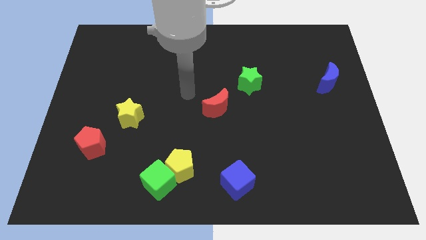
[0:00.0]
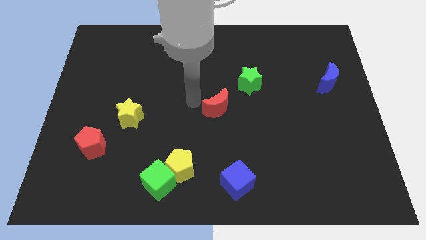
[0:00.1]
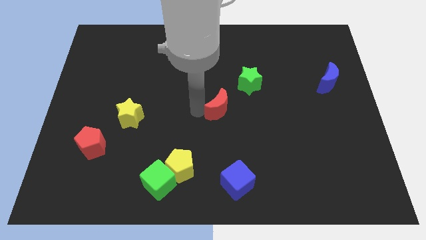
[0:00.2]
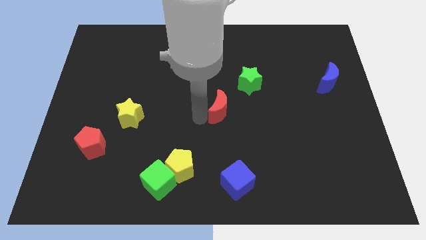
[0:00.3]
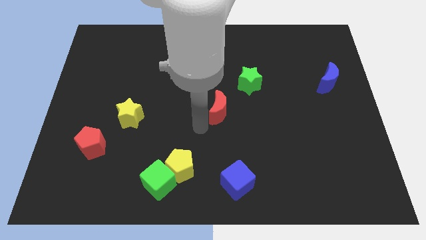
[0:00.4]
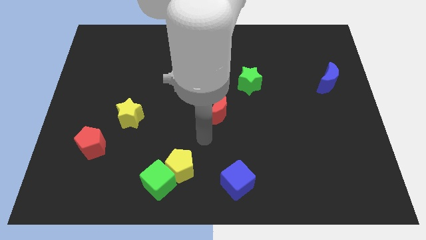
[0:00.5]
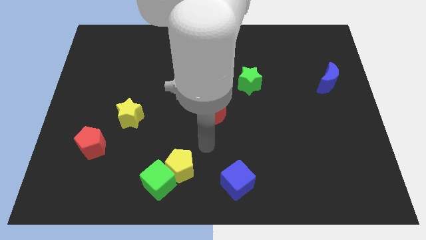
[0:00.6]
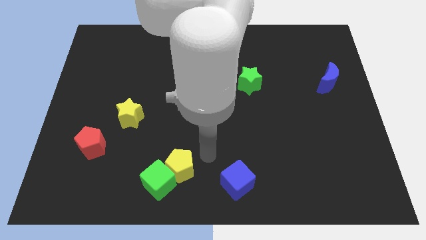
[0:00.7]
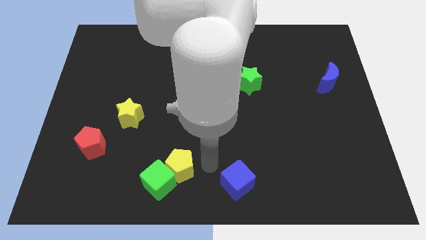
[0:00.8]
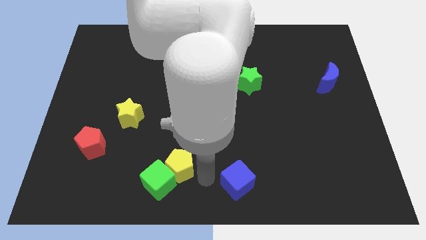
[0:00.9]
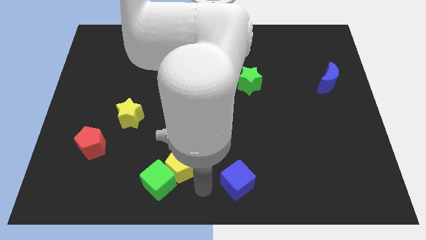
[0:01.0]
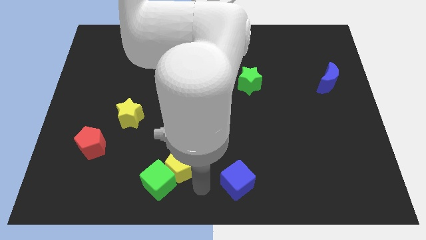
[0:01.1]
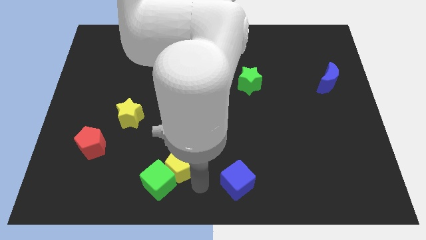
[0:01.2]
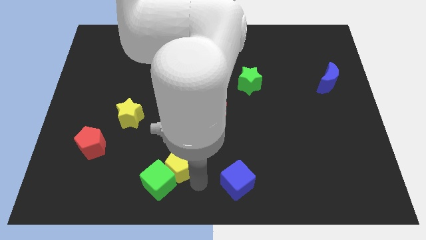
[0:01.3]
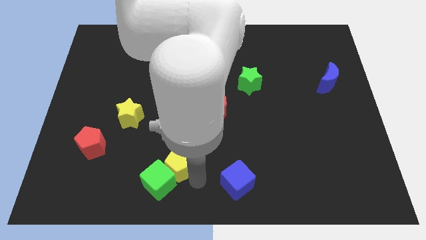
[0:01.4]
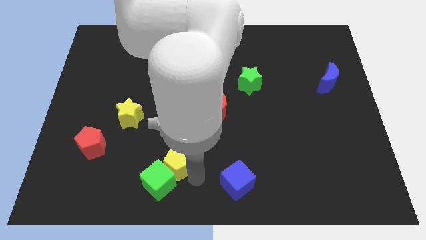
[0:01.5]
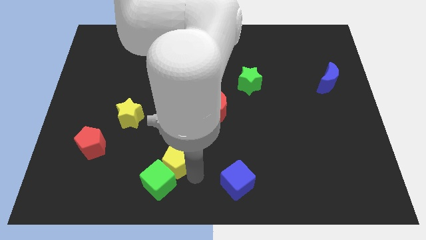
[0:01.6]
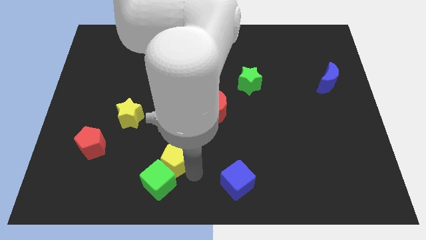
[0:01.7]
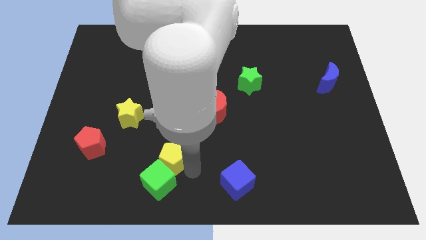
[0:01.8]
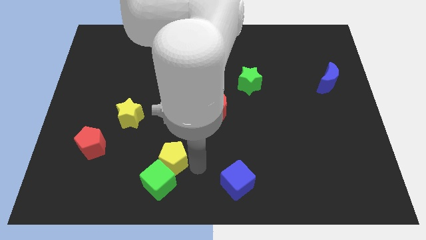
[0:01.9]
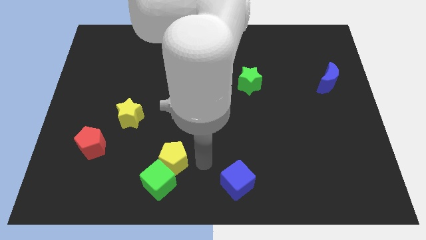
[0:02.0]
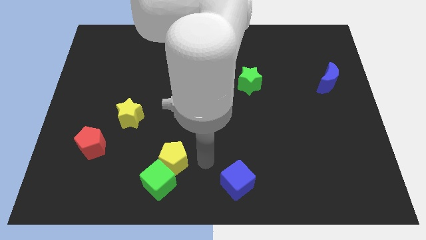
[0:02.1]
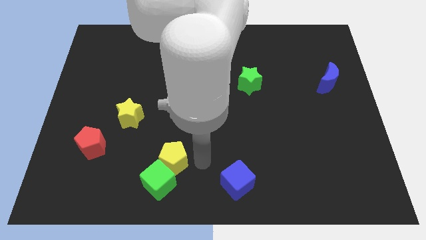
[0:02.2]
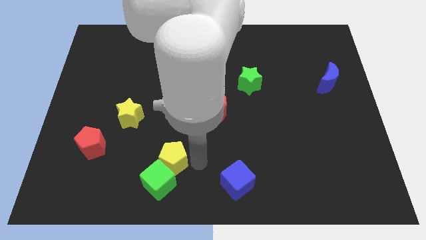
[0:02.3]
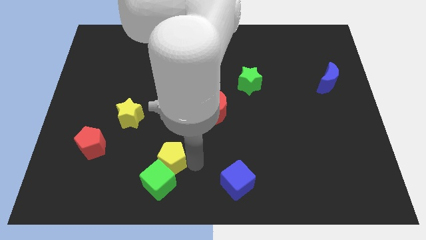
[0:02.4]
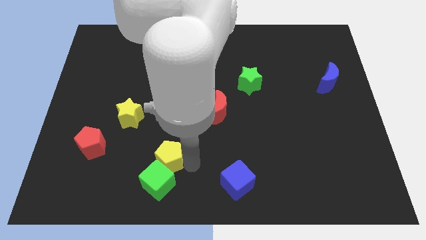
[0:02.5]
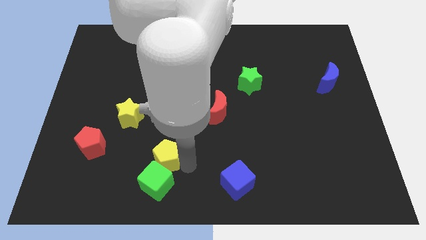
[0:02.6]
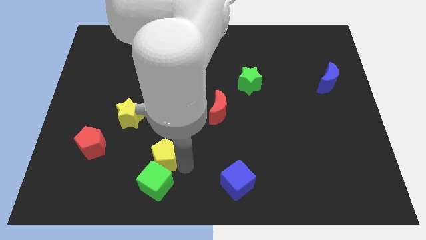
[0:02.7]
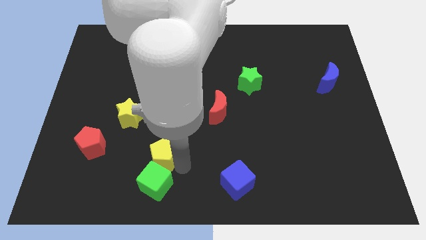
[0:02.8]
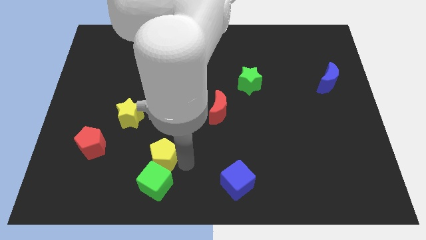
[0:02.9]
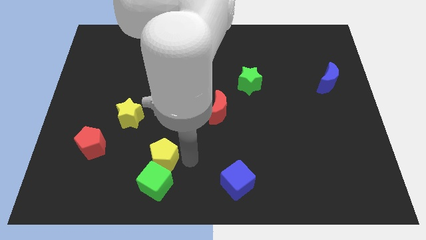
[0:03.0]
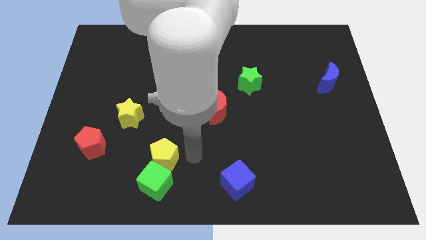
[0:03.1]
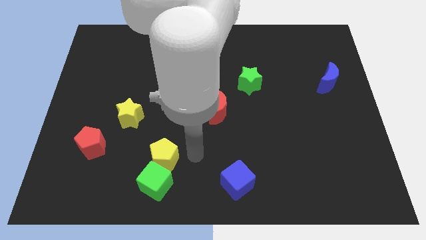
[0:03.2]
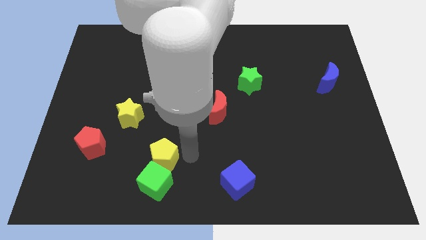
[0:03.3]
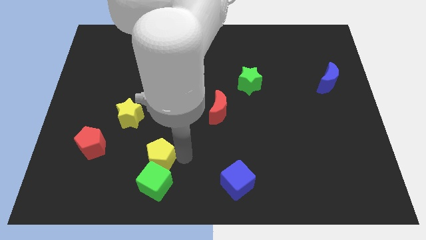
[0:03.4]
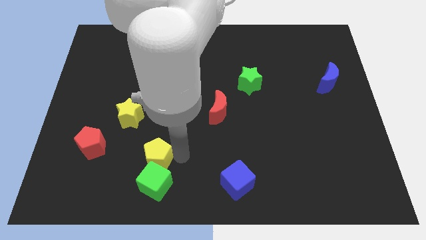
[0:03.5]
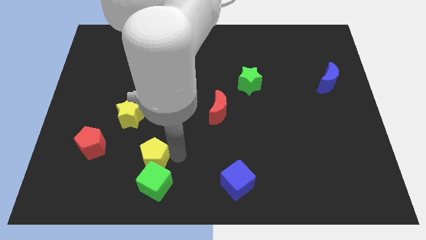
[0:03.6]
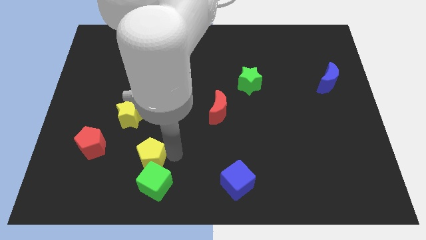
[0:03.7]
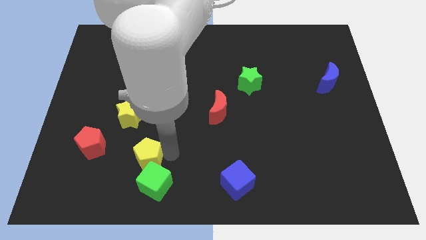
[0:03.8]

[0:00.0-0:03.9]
slightly slide the yellow pentagon to the left

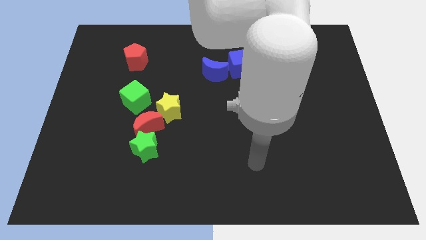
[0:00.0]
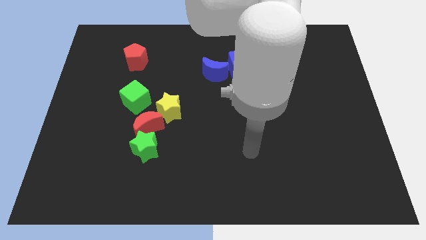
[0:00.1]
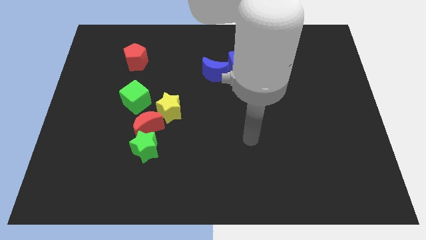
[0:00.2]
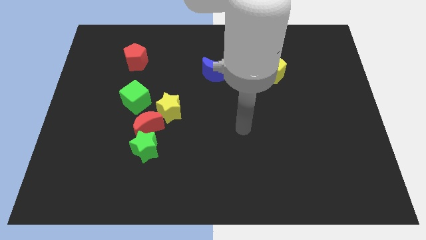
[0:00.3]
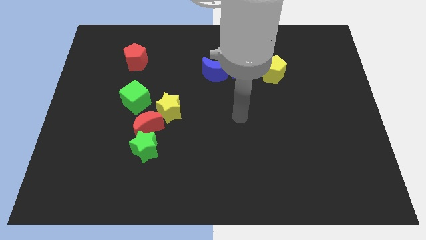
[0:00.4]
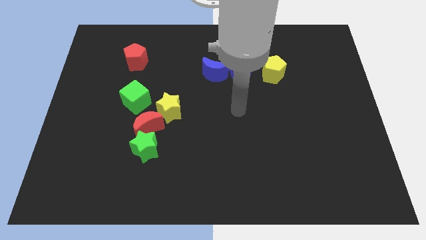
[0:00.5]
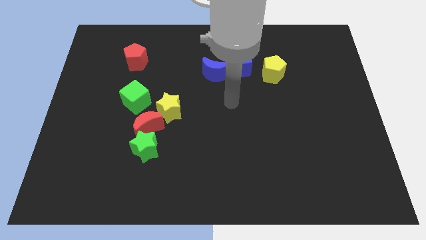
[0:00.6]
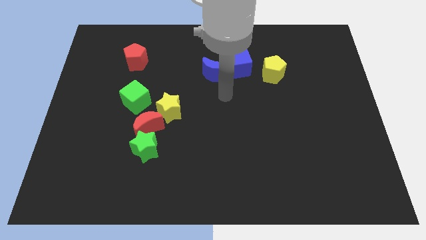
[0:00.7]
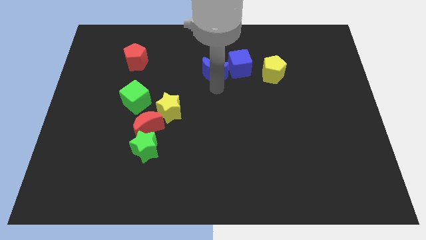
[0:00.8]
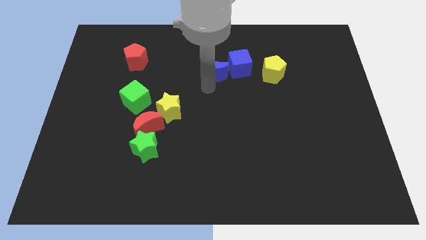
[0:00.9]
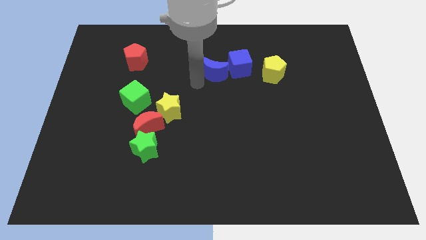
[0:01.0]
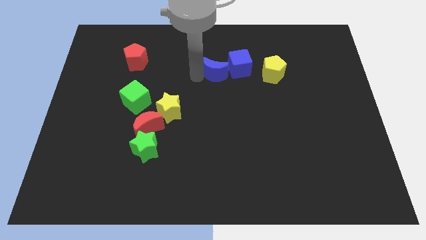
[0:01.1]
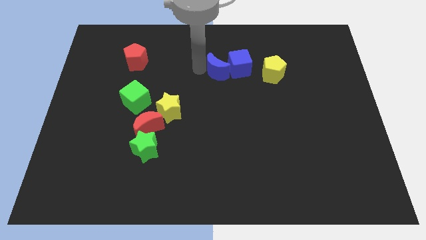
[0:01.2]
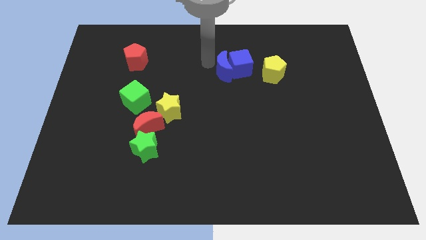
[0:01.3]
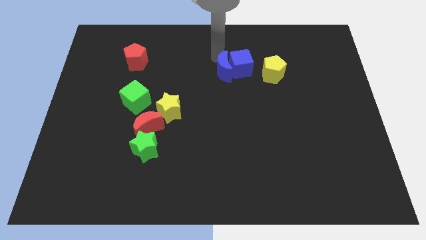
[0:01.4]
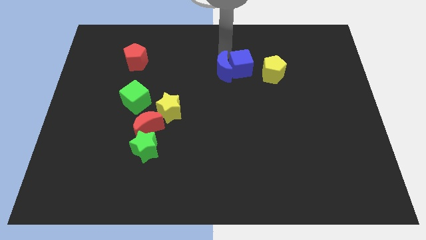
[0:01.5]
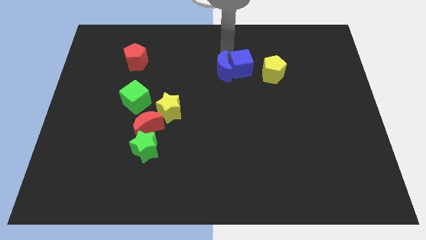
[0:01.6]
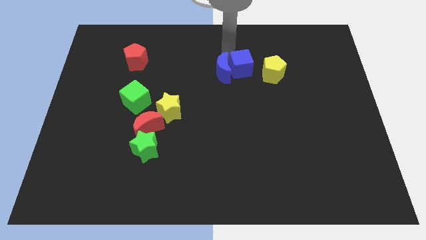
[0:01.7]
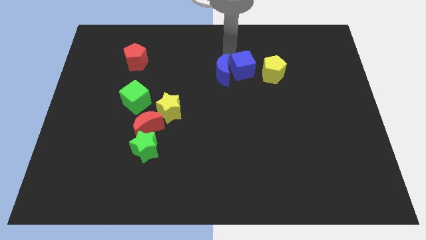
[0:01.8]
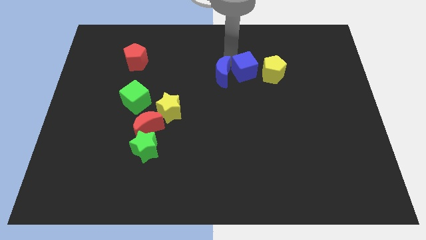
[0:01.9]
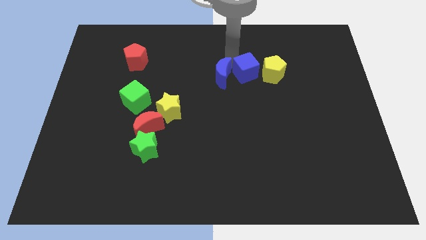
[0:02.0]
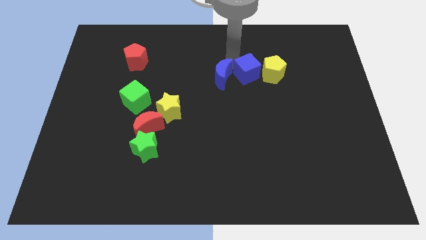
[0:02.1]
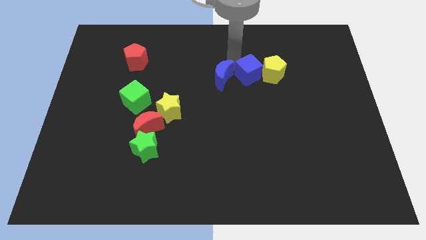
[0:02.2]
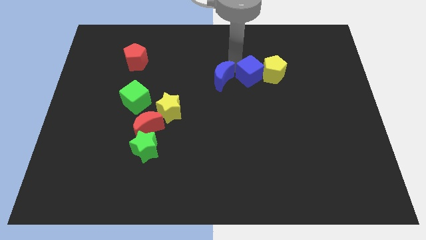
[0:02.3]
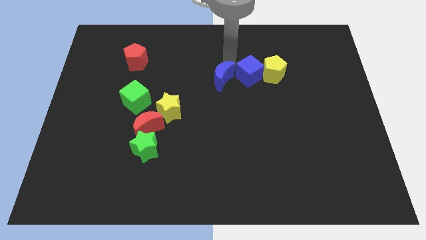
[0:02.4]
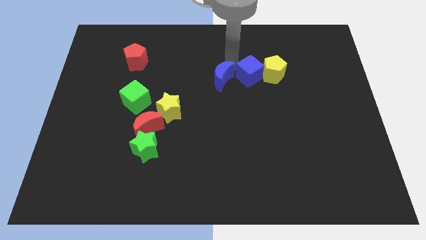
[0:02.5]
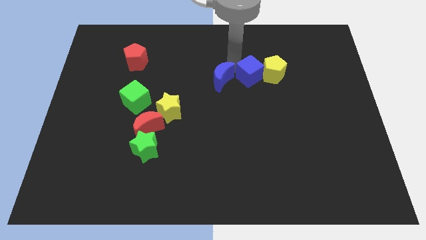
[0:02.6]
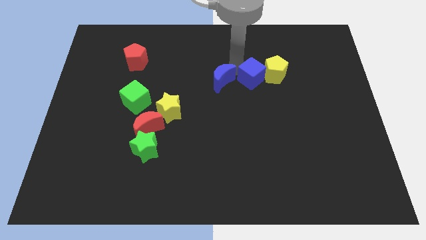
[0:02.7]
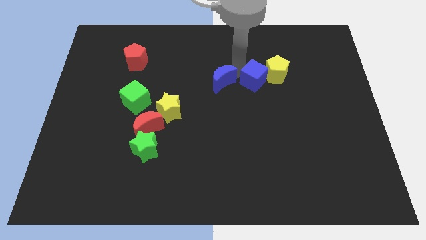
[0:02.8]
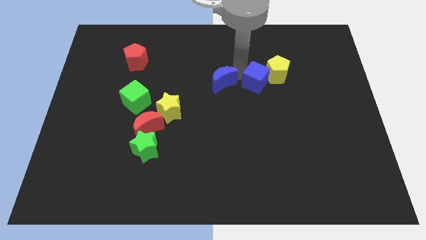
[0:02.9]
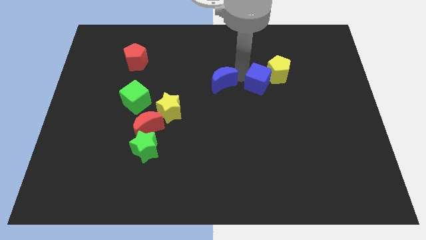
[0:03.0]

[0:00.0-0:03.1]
move the blue cube diagonally down and right a bit

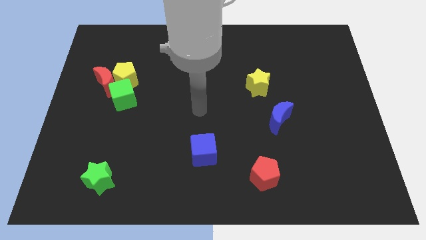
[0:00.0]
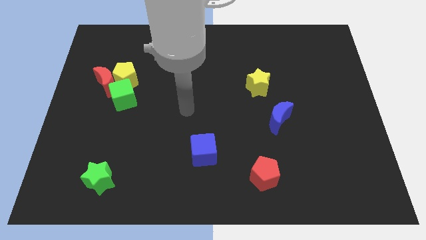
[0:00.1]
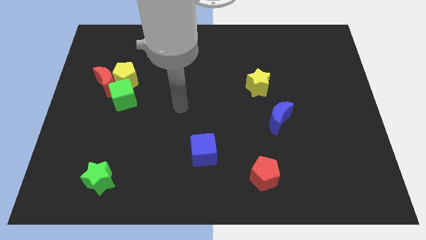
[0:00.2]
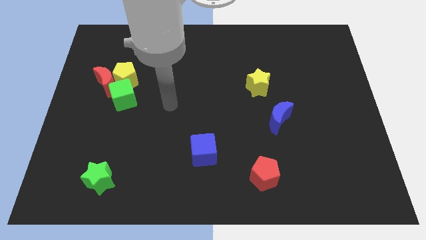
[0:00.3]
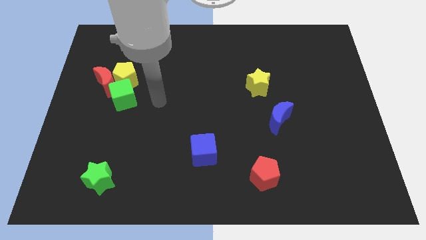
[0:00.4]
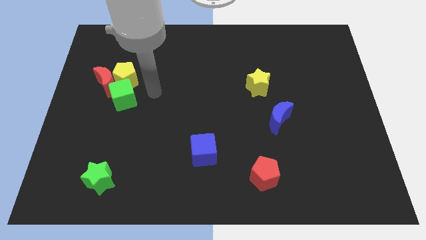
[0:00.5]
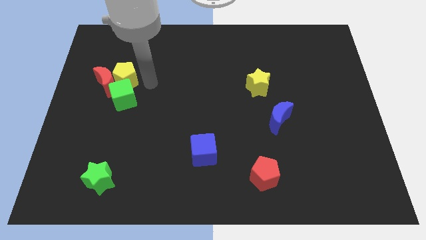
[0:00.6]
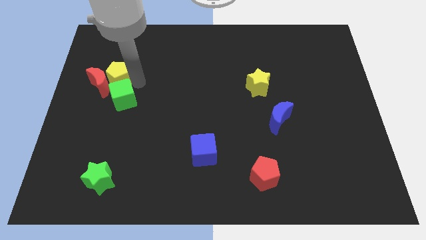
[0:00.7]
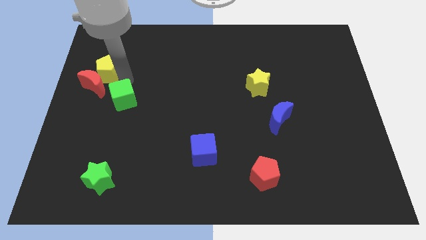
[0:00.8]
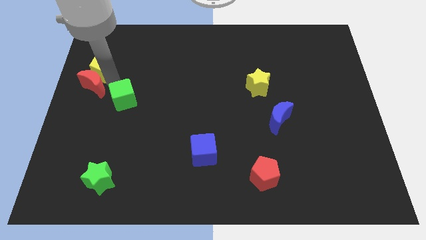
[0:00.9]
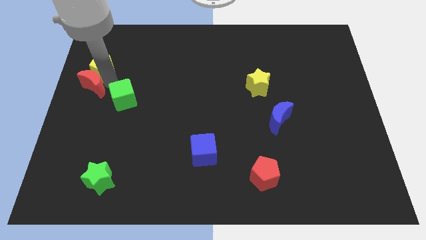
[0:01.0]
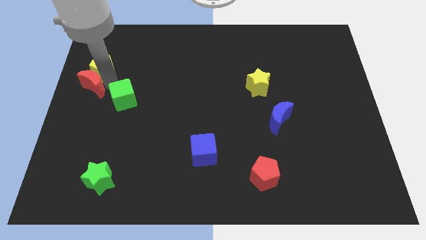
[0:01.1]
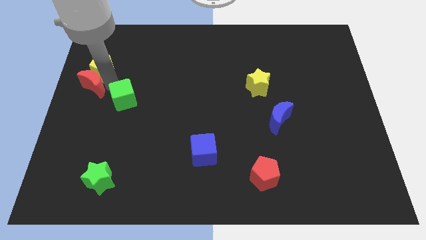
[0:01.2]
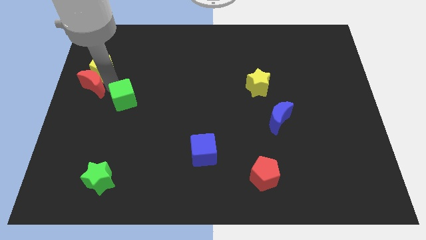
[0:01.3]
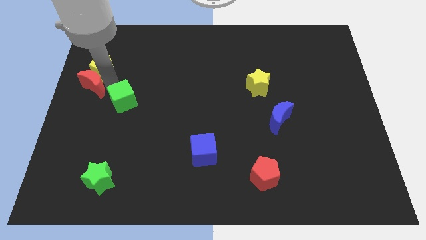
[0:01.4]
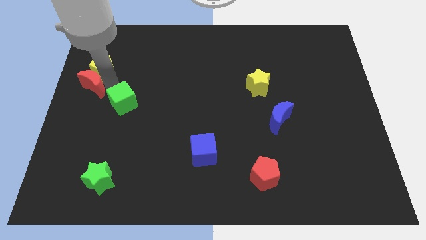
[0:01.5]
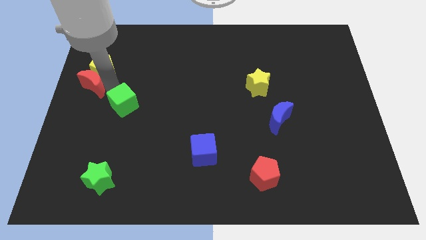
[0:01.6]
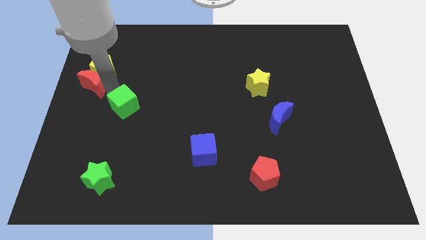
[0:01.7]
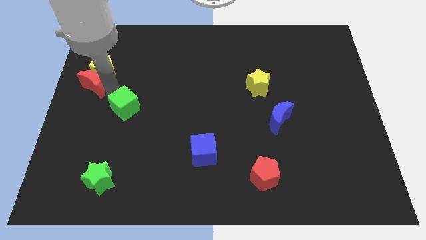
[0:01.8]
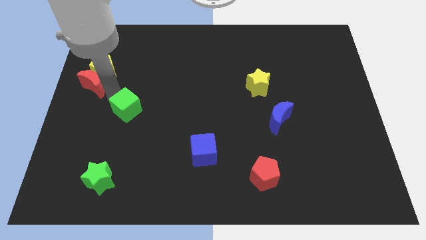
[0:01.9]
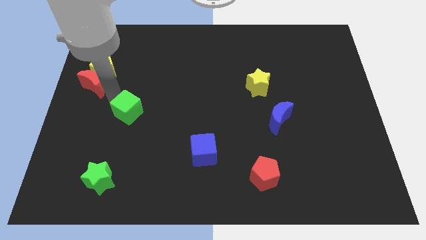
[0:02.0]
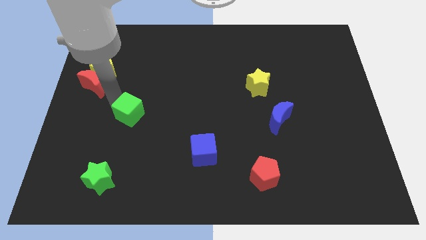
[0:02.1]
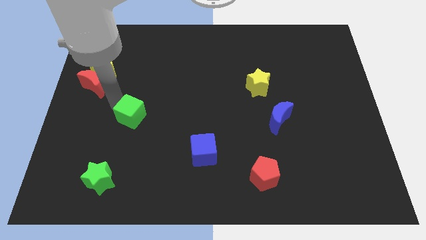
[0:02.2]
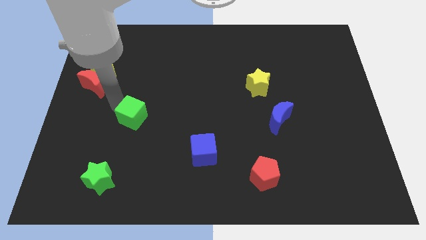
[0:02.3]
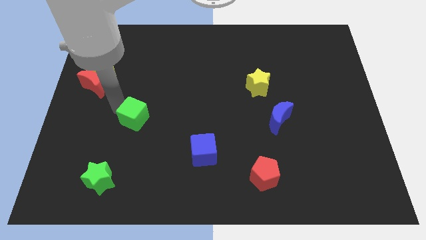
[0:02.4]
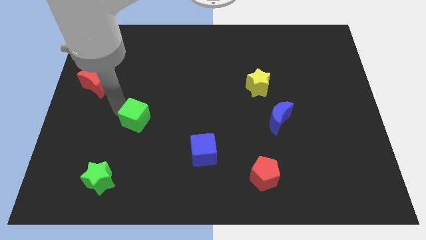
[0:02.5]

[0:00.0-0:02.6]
move the green cube a bit down and to the right diagonally
